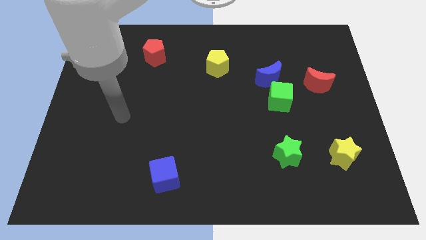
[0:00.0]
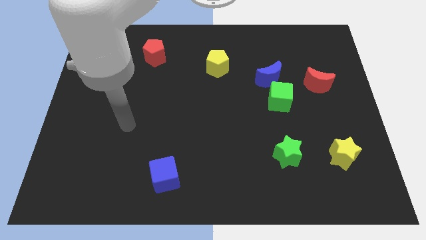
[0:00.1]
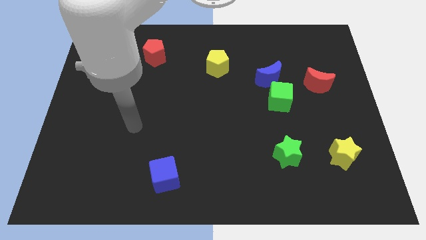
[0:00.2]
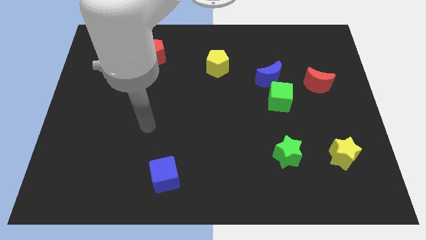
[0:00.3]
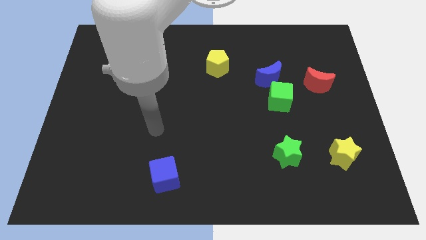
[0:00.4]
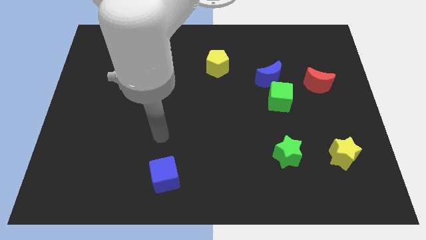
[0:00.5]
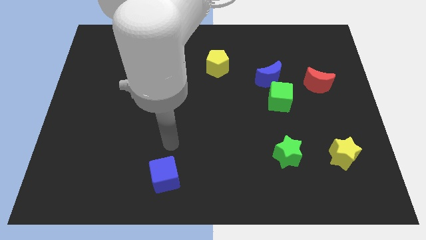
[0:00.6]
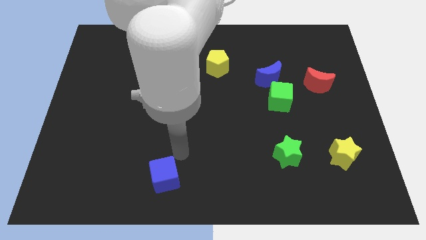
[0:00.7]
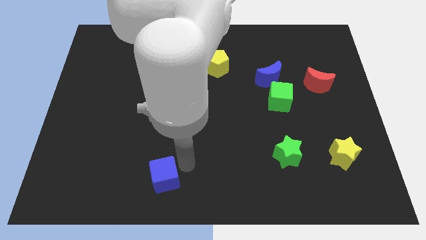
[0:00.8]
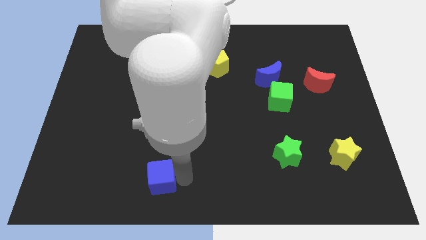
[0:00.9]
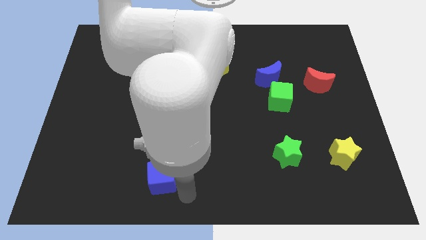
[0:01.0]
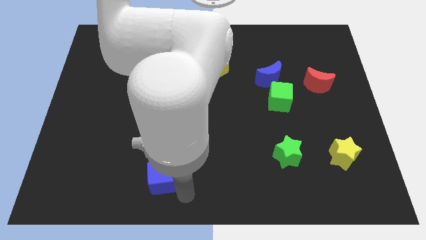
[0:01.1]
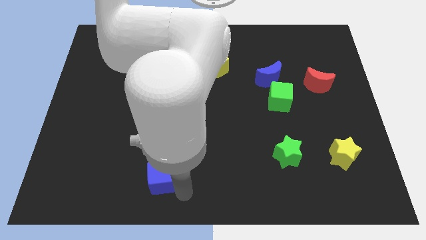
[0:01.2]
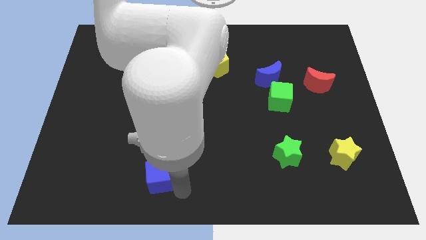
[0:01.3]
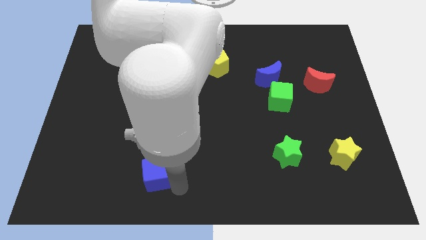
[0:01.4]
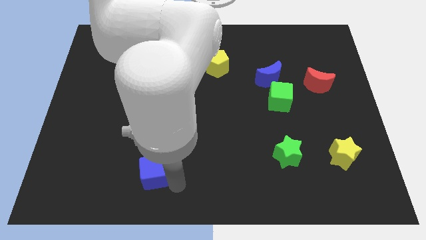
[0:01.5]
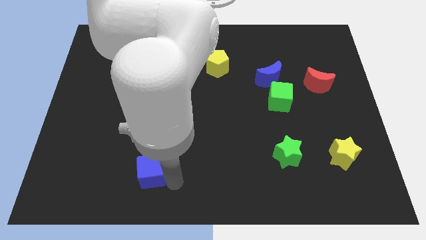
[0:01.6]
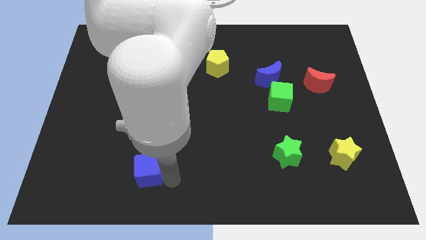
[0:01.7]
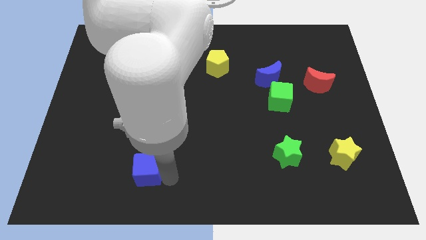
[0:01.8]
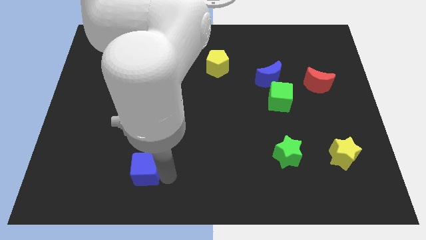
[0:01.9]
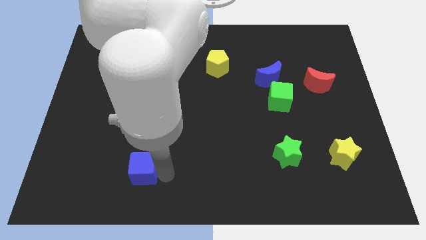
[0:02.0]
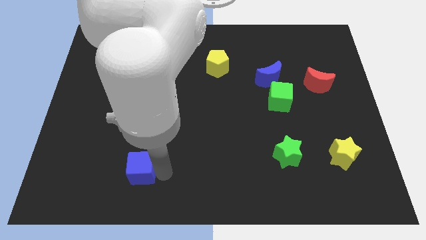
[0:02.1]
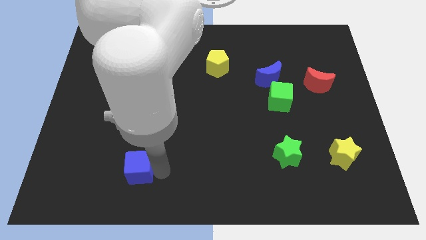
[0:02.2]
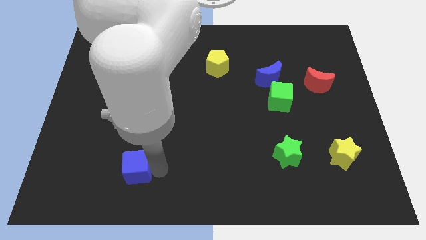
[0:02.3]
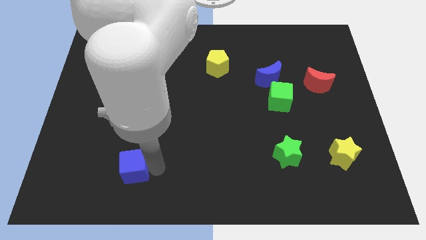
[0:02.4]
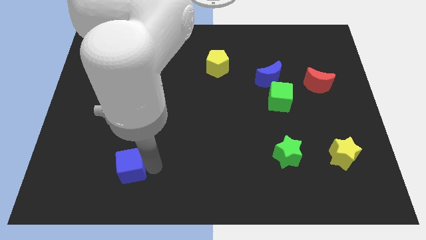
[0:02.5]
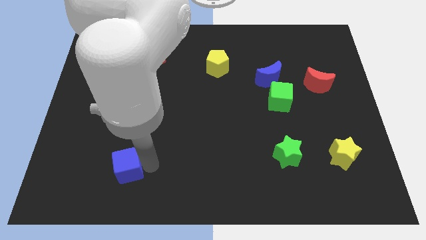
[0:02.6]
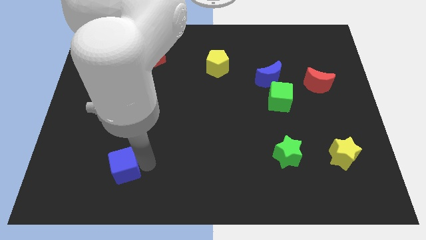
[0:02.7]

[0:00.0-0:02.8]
move the blue cube somewhat diagonally upwards and left

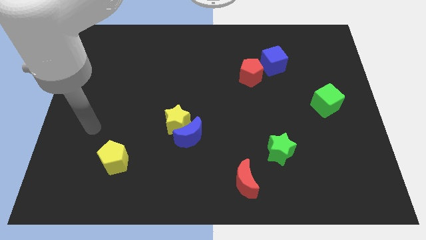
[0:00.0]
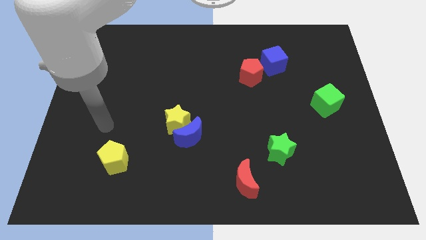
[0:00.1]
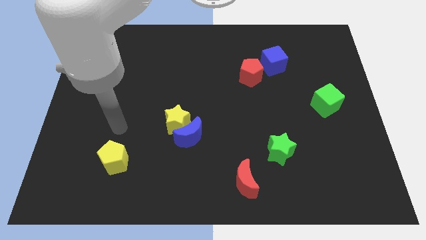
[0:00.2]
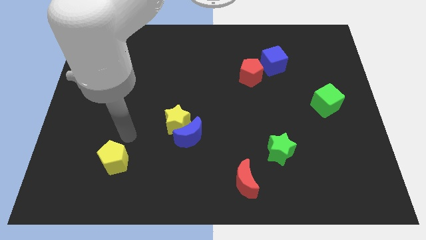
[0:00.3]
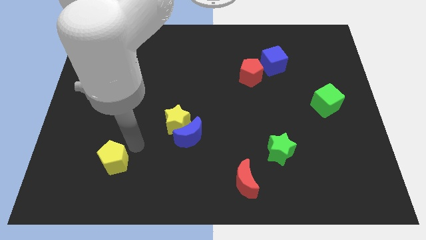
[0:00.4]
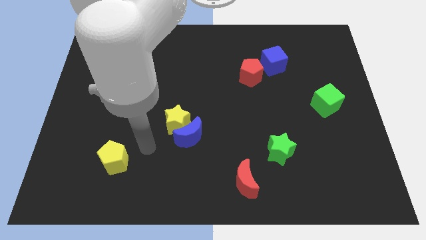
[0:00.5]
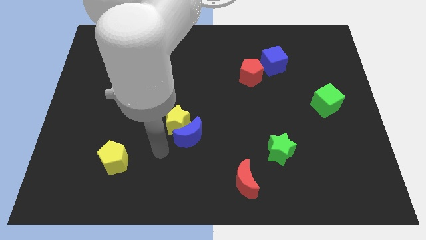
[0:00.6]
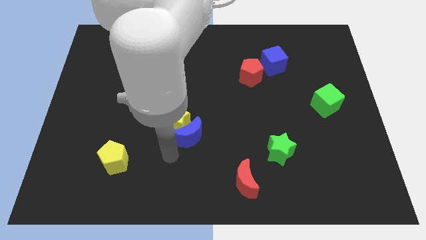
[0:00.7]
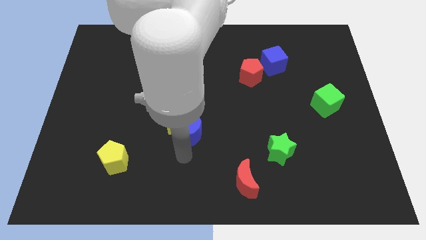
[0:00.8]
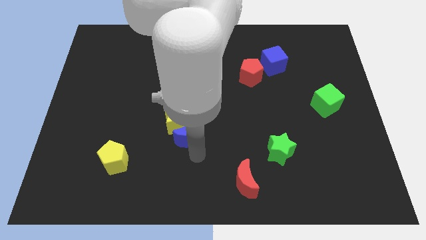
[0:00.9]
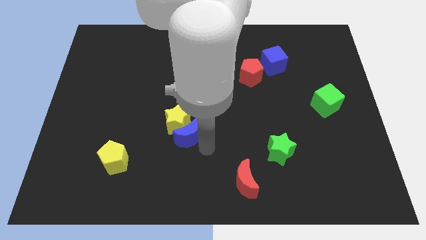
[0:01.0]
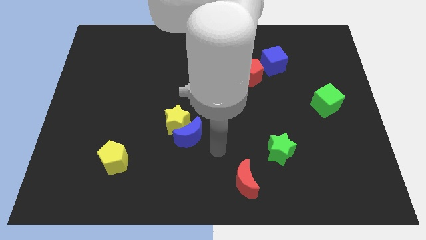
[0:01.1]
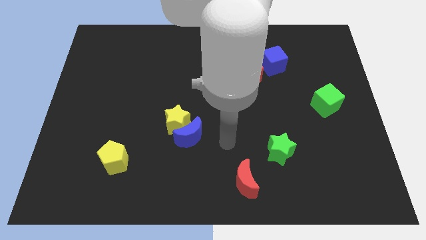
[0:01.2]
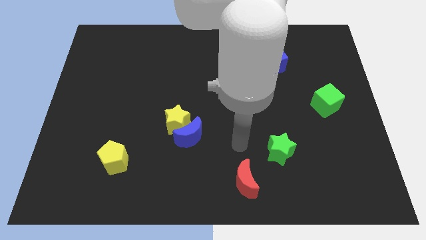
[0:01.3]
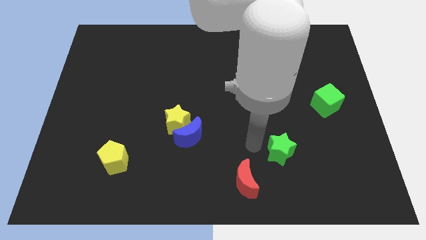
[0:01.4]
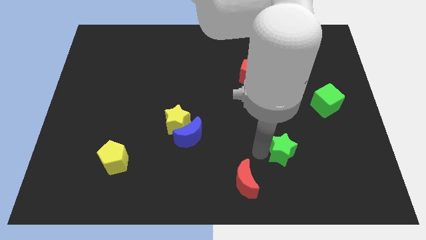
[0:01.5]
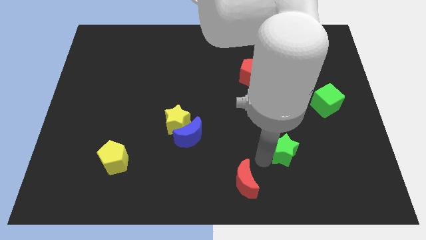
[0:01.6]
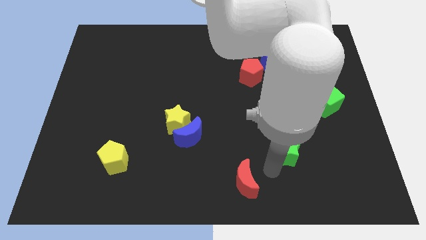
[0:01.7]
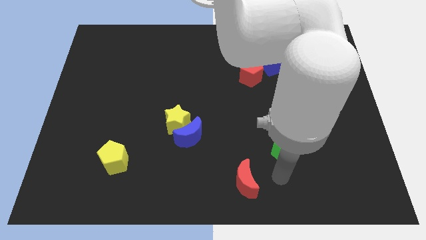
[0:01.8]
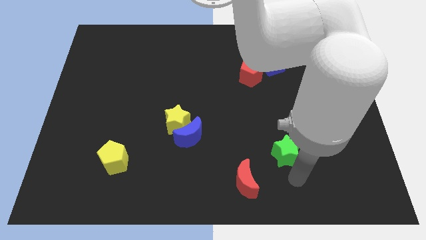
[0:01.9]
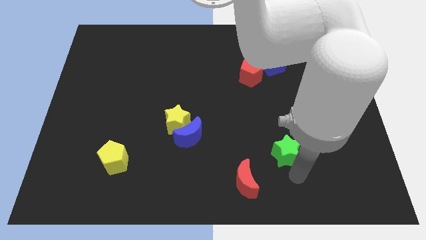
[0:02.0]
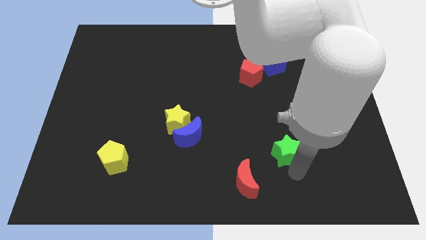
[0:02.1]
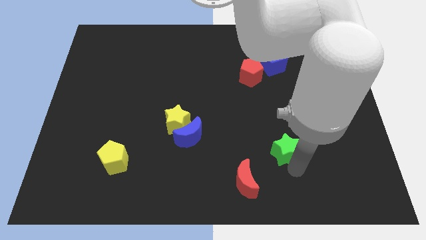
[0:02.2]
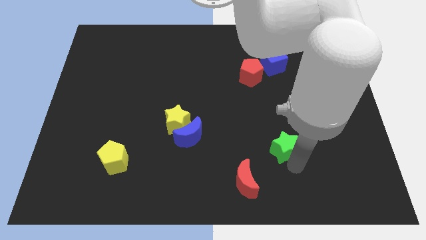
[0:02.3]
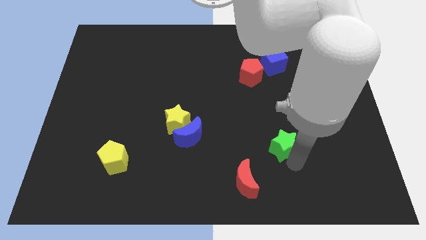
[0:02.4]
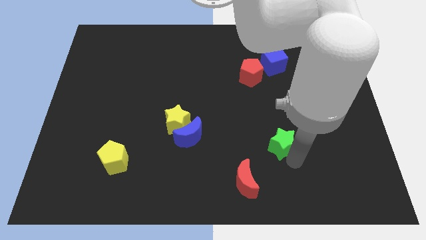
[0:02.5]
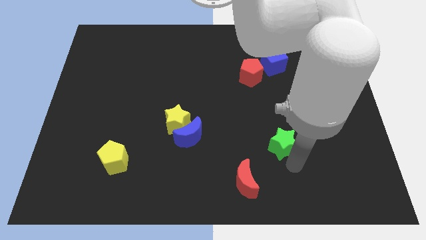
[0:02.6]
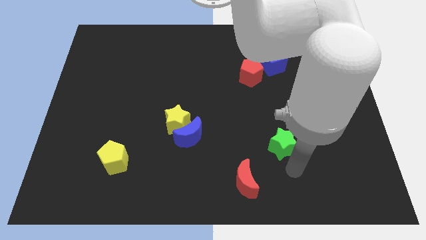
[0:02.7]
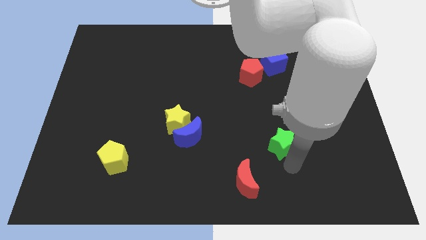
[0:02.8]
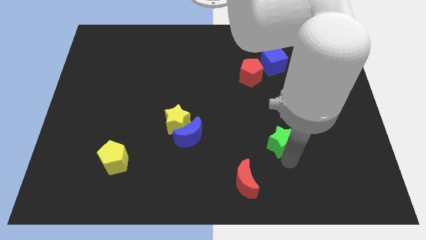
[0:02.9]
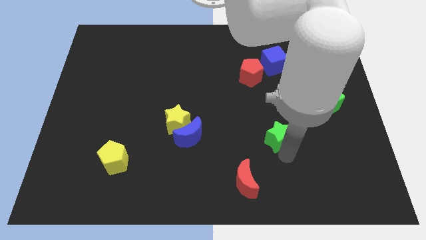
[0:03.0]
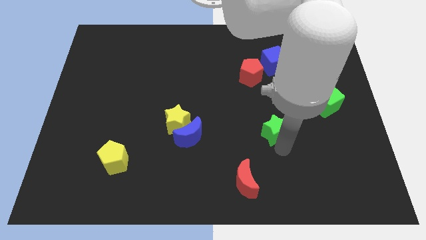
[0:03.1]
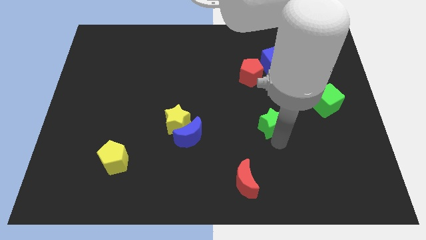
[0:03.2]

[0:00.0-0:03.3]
push the green star slightly up

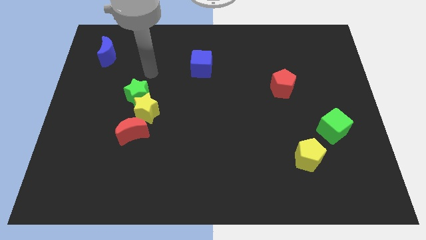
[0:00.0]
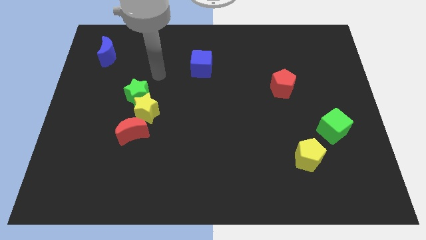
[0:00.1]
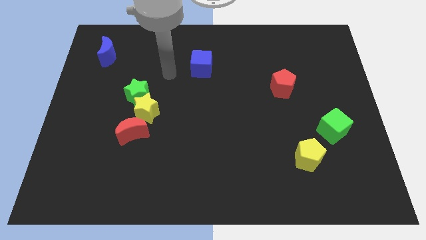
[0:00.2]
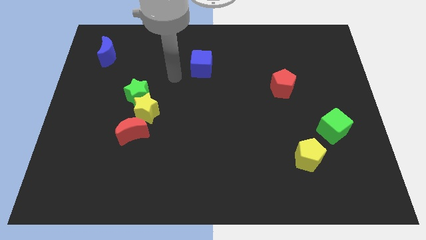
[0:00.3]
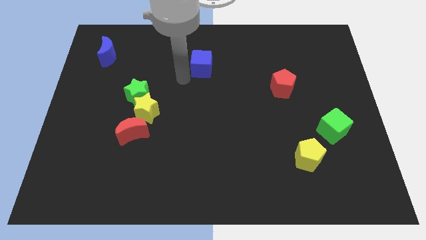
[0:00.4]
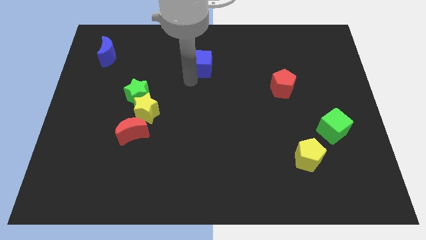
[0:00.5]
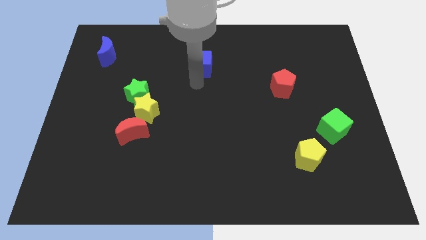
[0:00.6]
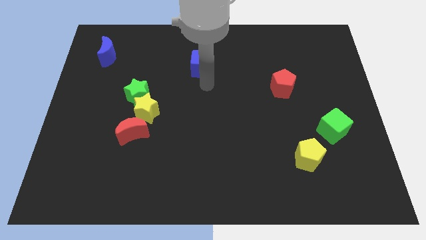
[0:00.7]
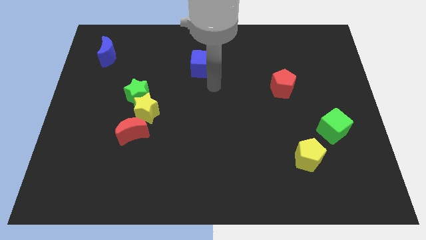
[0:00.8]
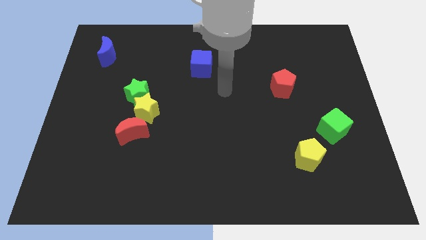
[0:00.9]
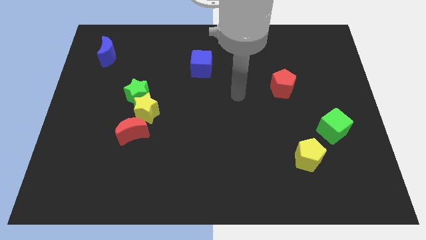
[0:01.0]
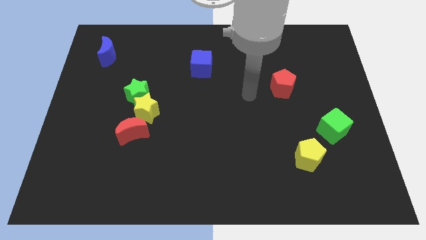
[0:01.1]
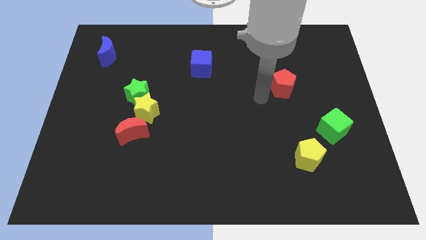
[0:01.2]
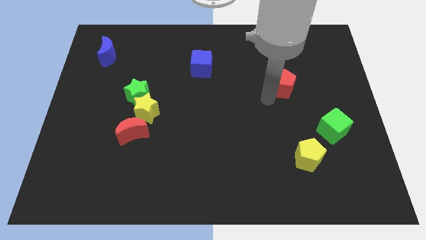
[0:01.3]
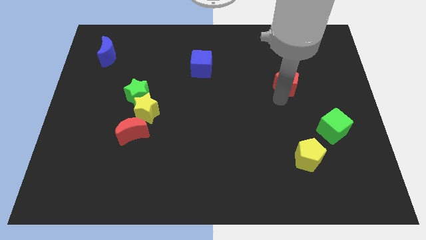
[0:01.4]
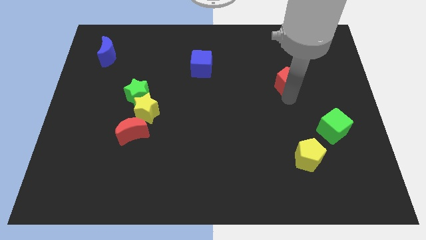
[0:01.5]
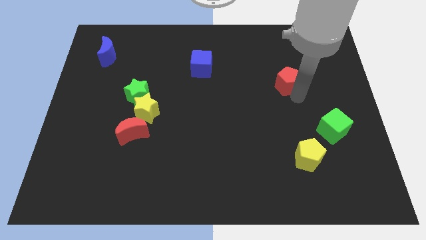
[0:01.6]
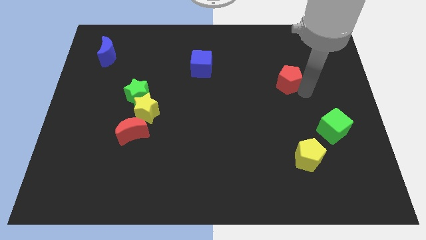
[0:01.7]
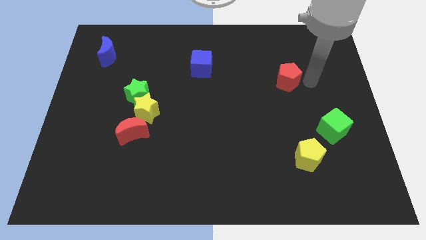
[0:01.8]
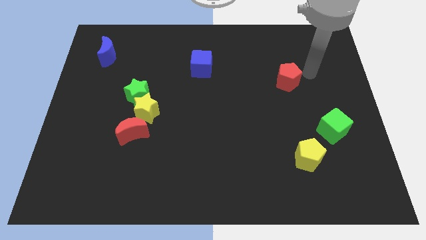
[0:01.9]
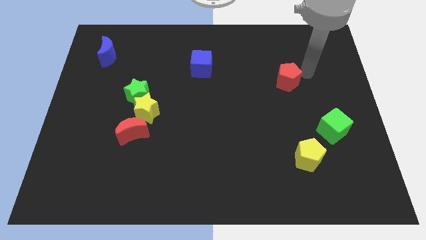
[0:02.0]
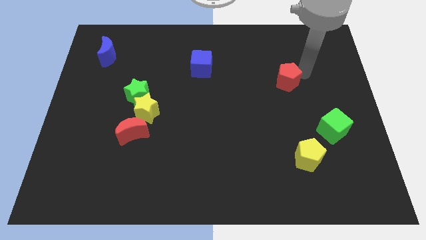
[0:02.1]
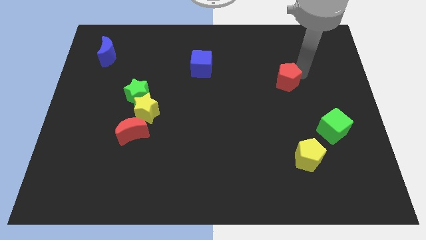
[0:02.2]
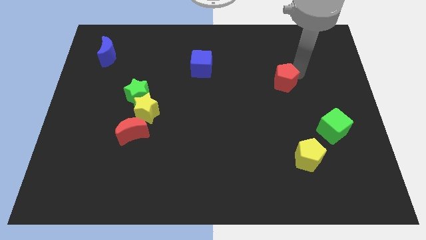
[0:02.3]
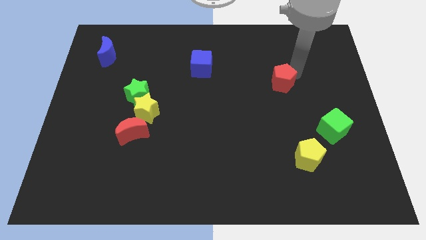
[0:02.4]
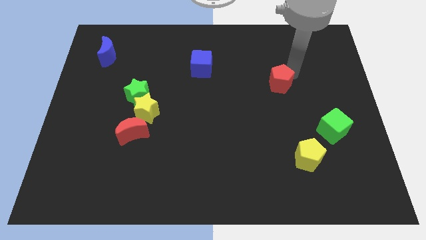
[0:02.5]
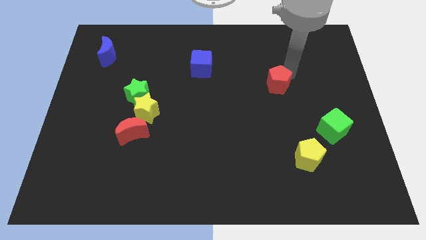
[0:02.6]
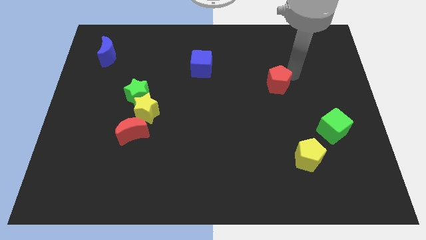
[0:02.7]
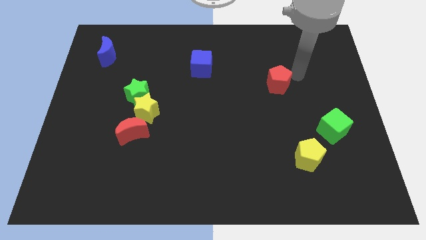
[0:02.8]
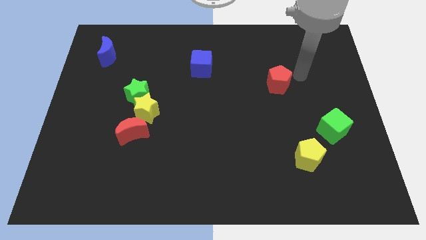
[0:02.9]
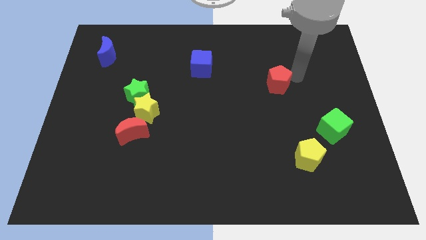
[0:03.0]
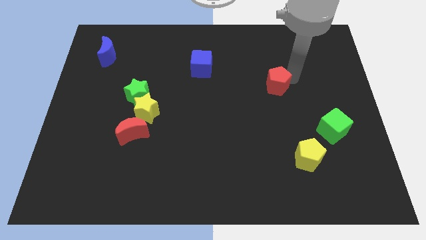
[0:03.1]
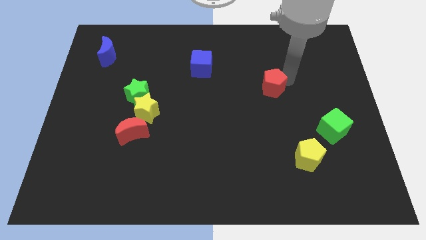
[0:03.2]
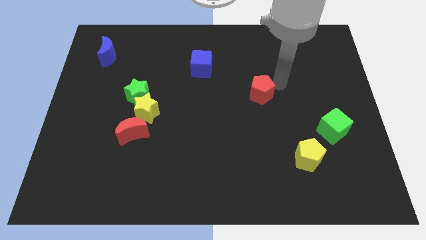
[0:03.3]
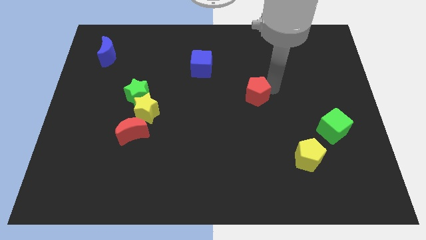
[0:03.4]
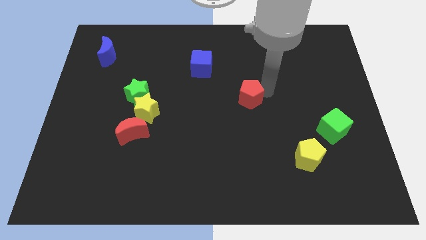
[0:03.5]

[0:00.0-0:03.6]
slightly slide the red pentagon left
